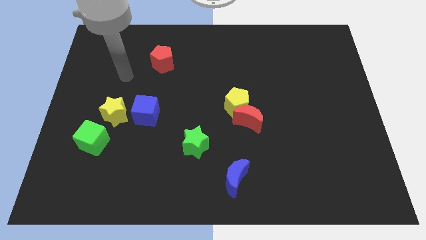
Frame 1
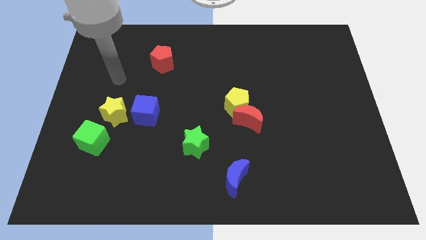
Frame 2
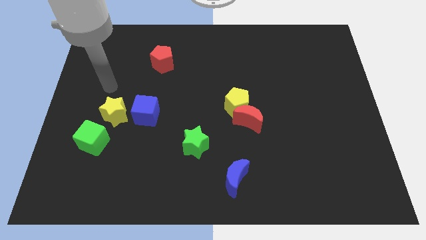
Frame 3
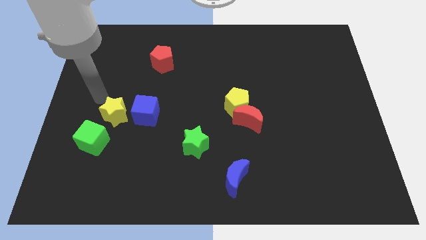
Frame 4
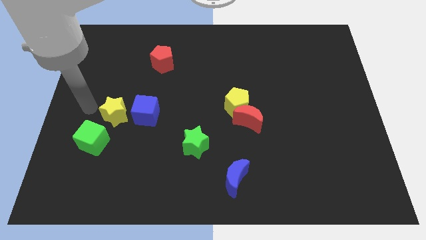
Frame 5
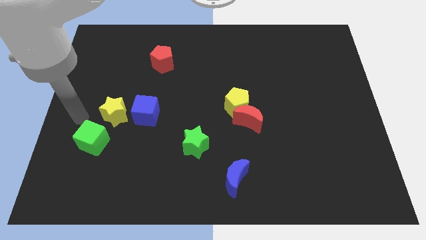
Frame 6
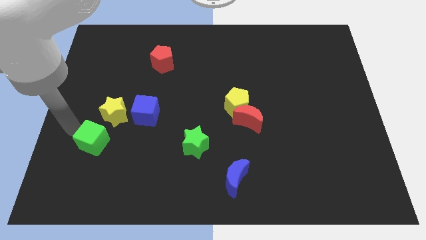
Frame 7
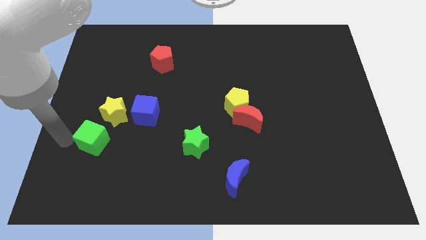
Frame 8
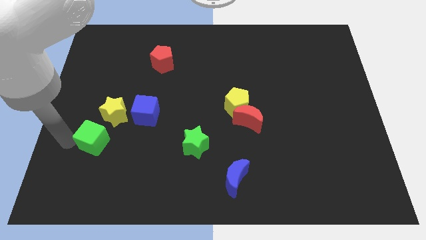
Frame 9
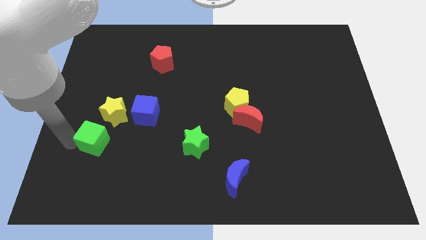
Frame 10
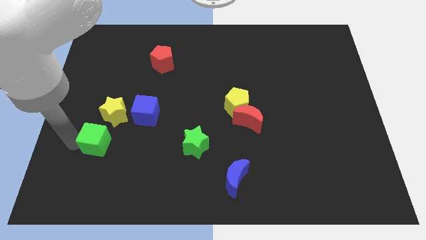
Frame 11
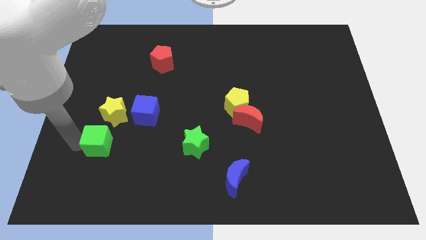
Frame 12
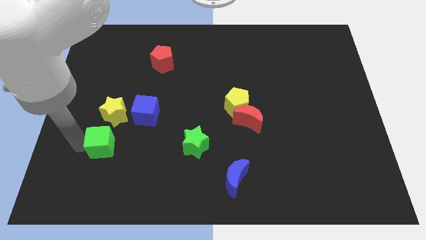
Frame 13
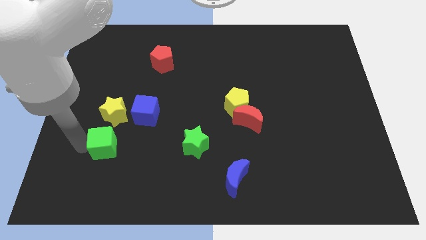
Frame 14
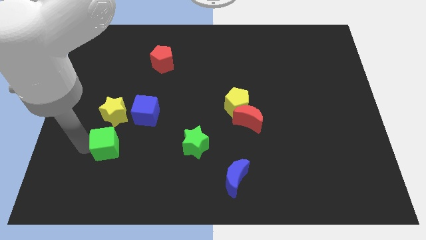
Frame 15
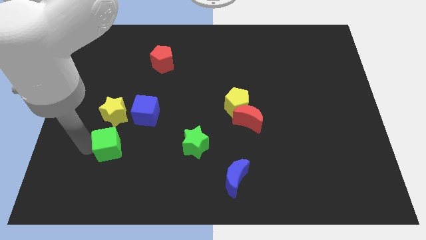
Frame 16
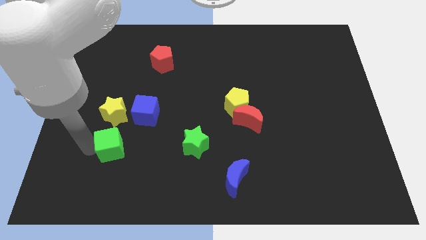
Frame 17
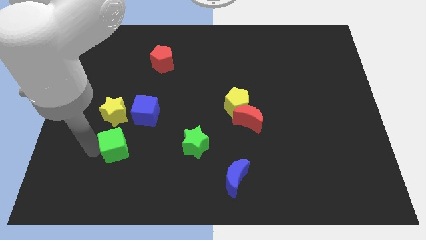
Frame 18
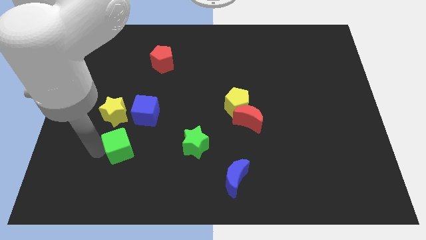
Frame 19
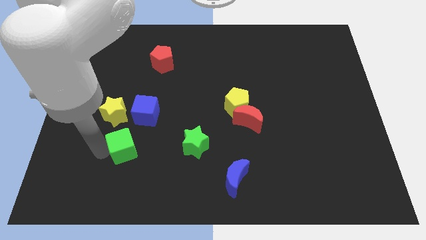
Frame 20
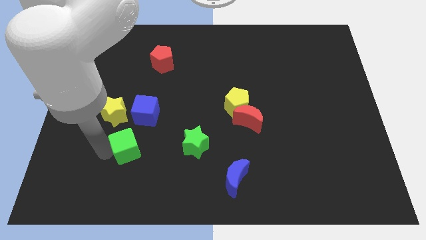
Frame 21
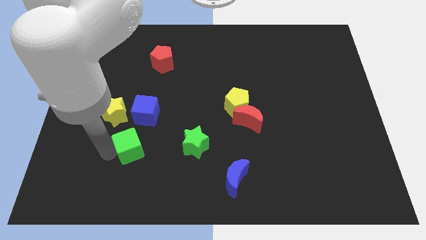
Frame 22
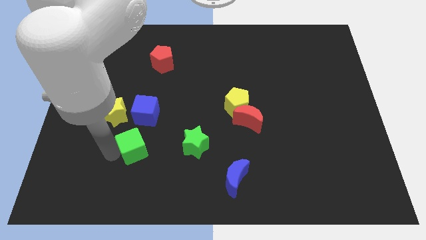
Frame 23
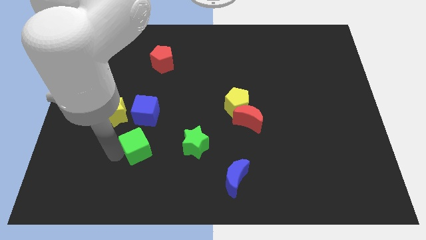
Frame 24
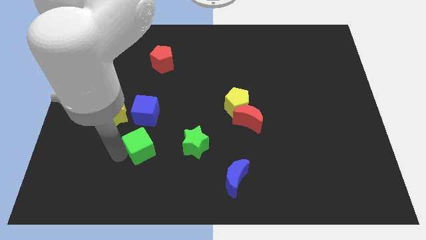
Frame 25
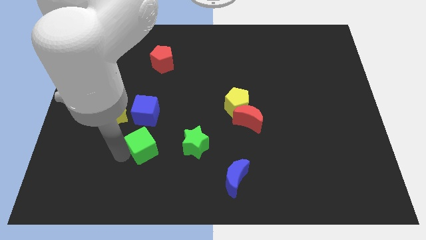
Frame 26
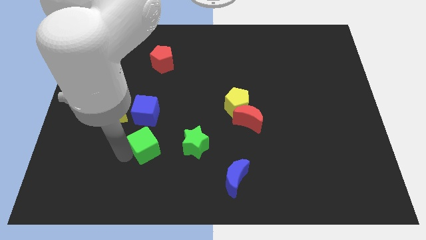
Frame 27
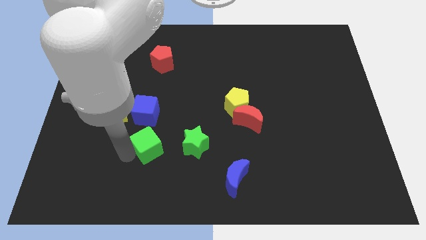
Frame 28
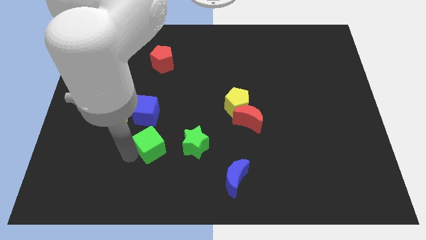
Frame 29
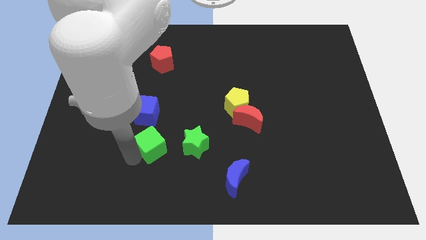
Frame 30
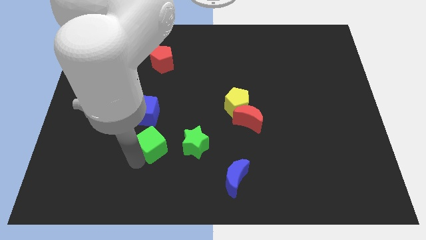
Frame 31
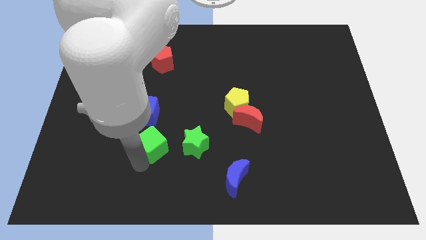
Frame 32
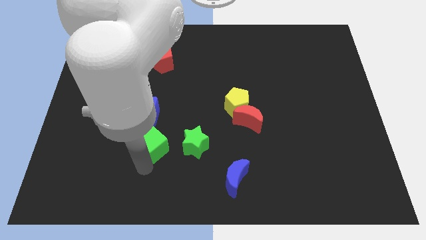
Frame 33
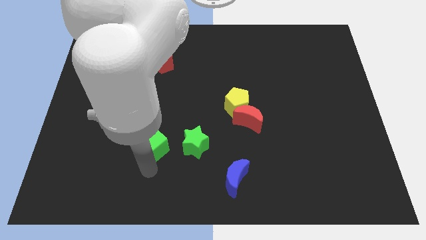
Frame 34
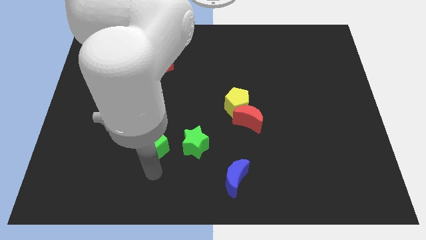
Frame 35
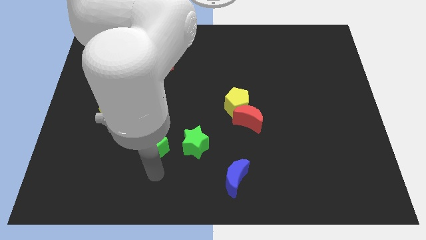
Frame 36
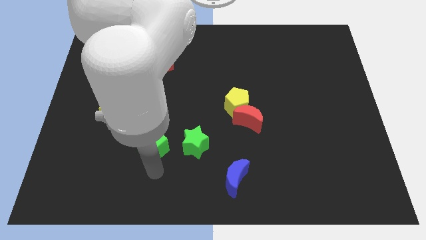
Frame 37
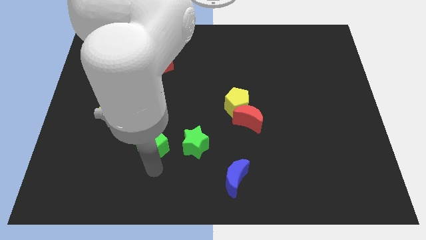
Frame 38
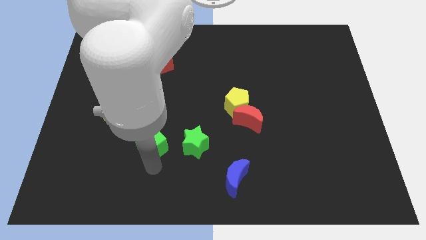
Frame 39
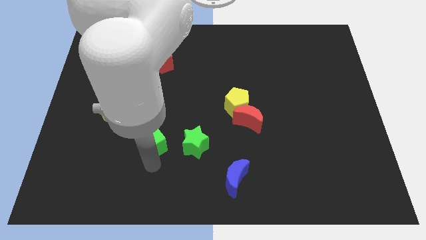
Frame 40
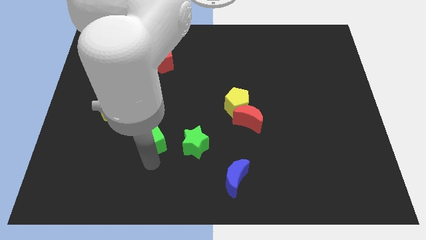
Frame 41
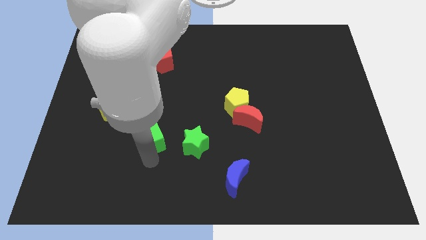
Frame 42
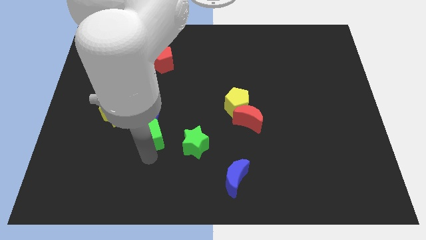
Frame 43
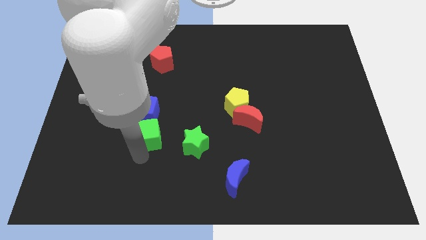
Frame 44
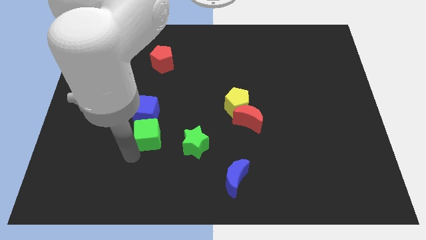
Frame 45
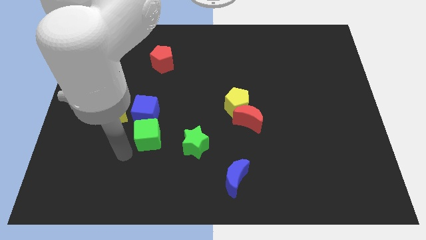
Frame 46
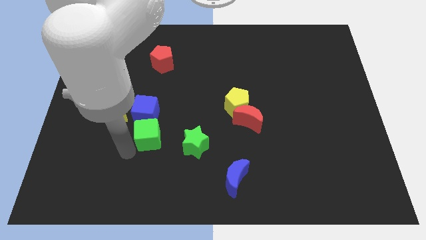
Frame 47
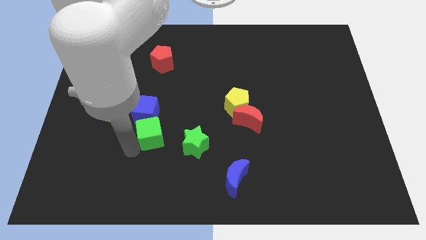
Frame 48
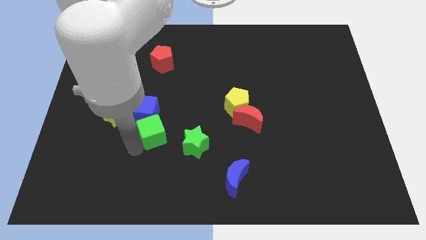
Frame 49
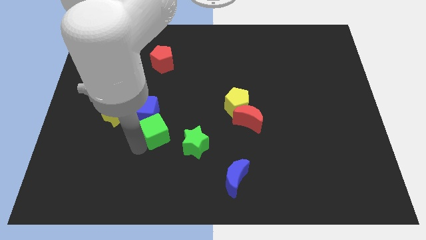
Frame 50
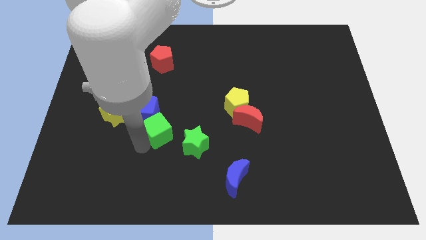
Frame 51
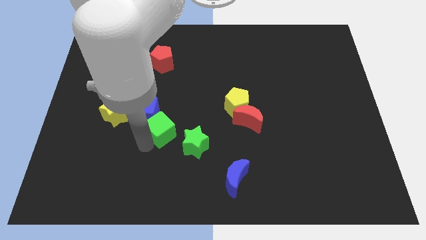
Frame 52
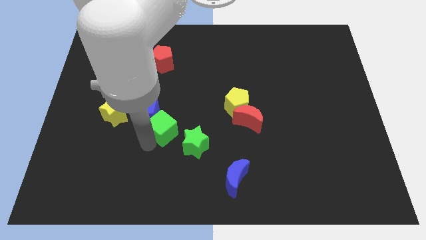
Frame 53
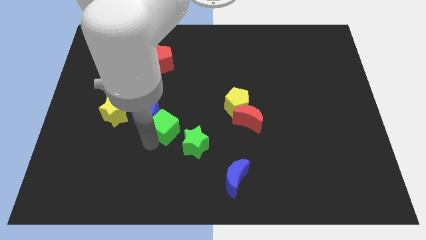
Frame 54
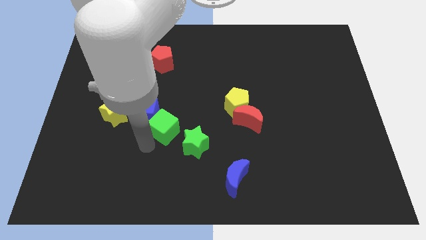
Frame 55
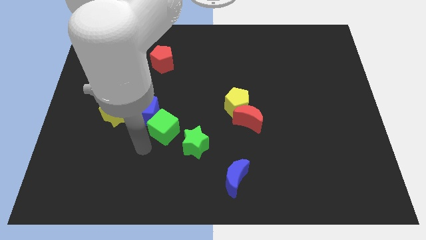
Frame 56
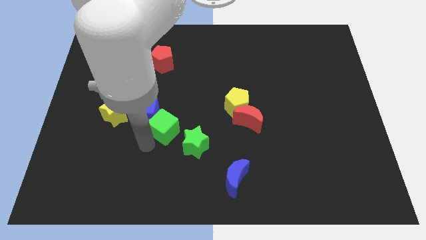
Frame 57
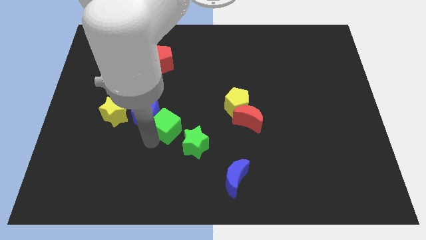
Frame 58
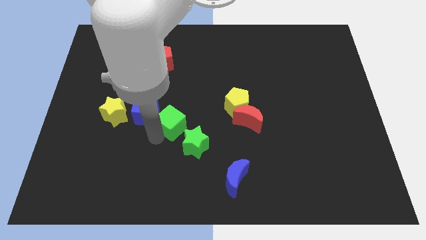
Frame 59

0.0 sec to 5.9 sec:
slide the green cube to the middle of the board

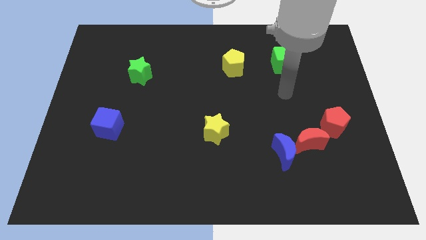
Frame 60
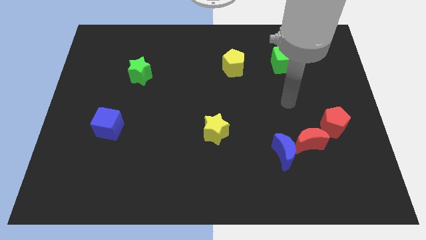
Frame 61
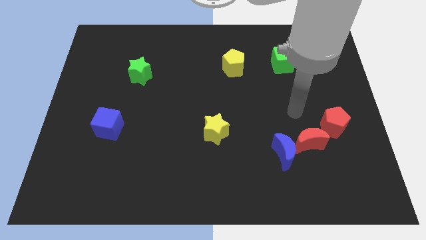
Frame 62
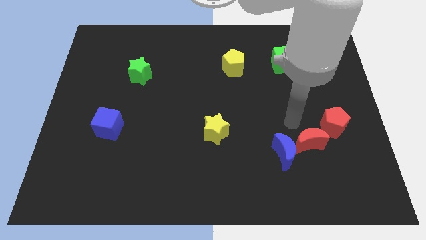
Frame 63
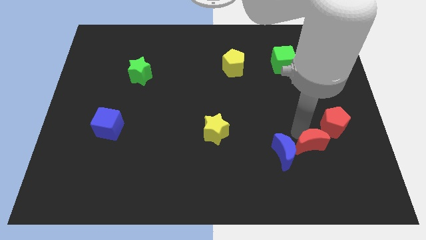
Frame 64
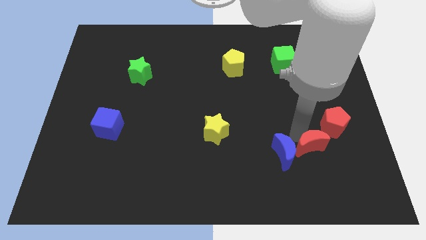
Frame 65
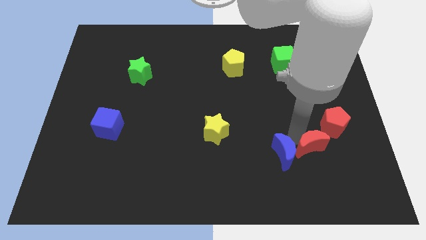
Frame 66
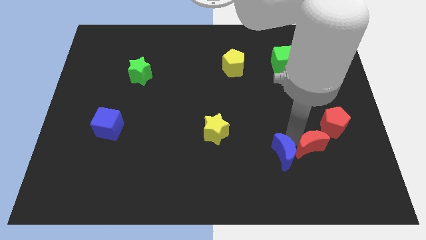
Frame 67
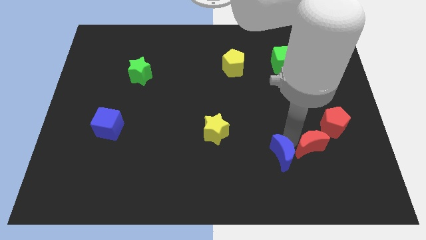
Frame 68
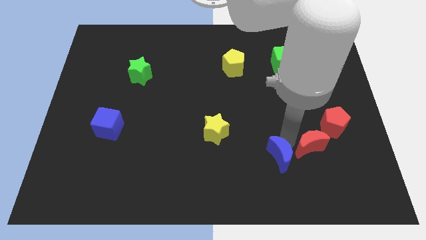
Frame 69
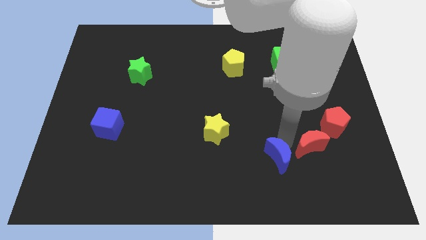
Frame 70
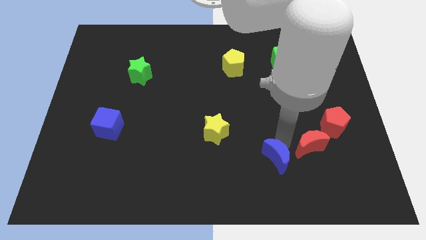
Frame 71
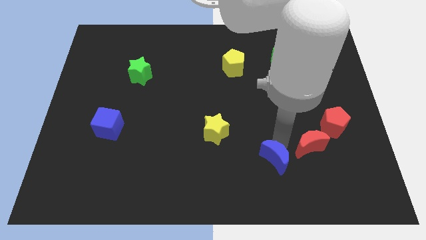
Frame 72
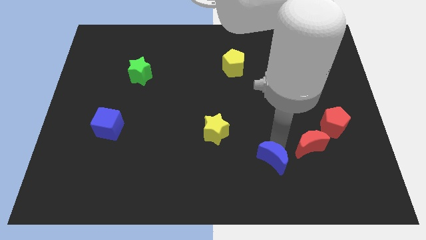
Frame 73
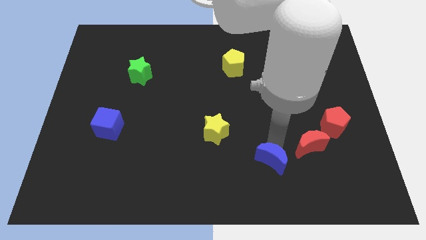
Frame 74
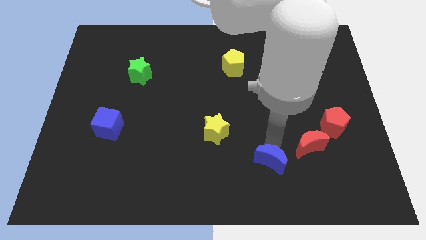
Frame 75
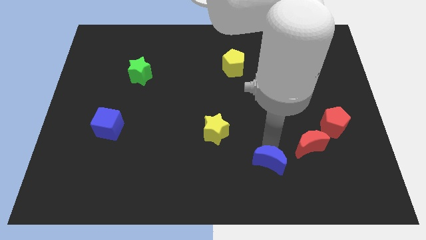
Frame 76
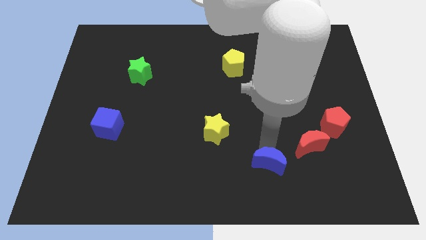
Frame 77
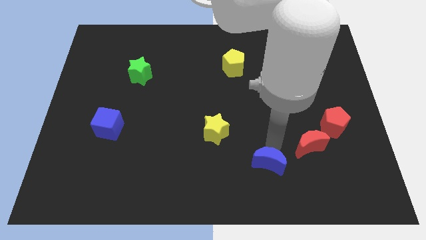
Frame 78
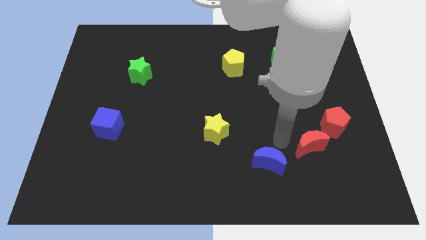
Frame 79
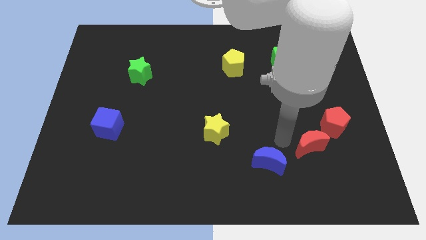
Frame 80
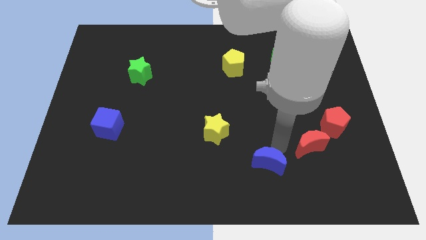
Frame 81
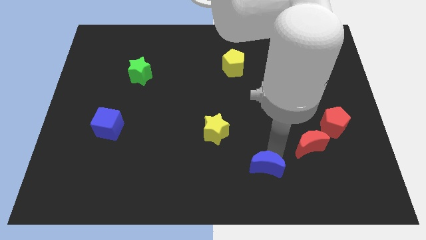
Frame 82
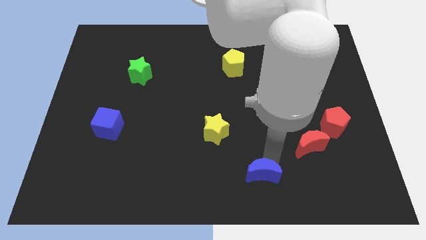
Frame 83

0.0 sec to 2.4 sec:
slide the blue moon to the bottom
